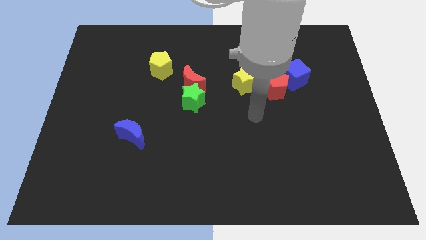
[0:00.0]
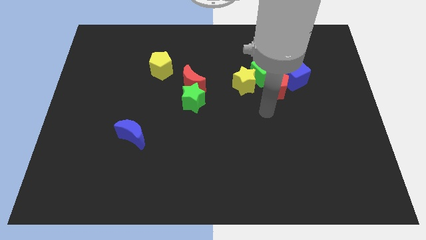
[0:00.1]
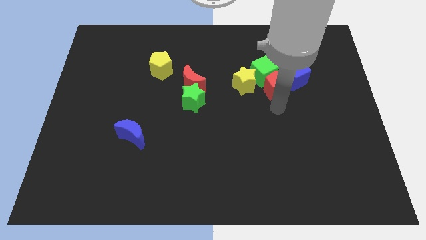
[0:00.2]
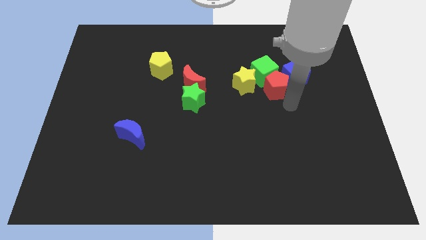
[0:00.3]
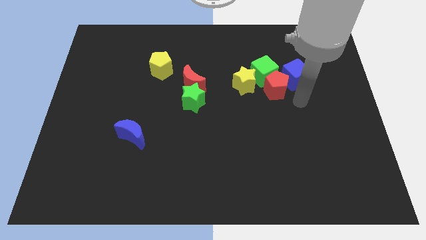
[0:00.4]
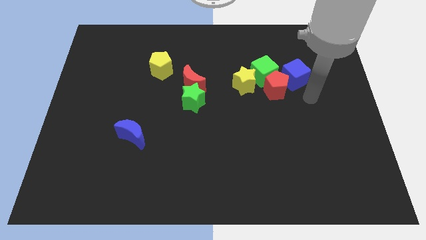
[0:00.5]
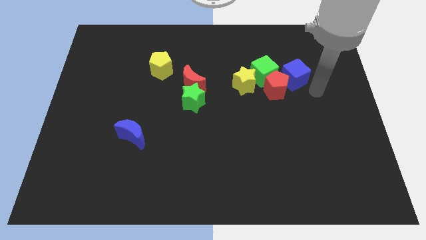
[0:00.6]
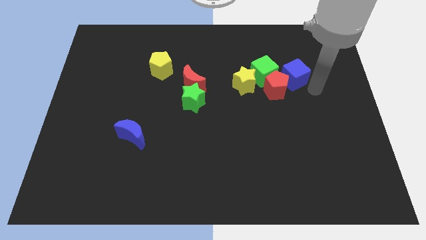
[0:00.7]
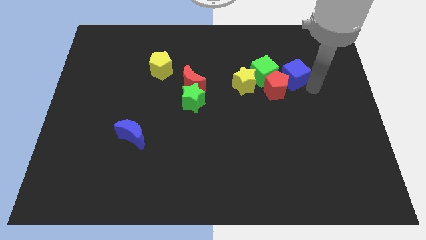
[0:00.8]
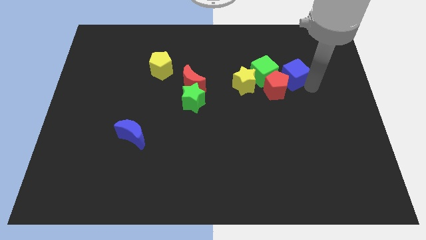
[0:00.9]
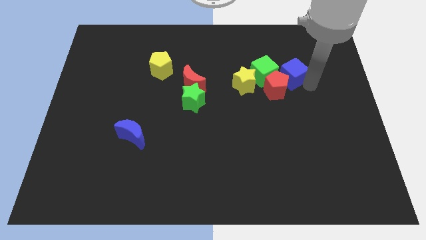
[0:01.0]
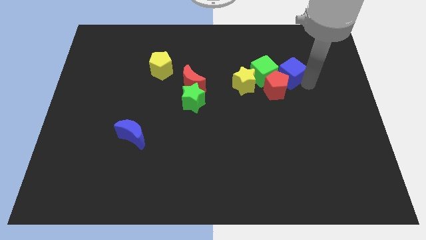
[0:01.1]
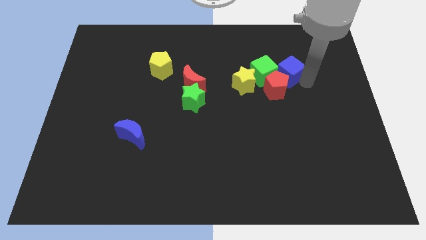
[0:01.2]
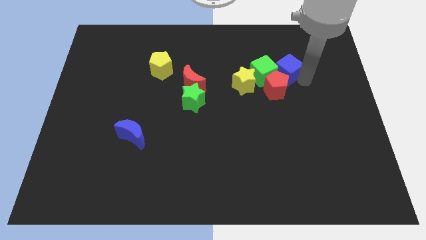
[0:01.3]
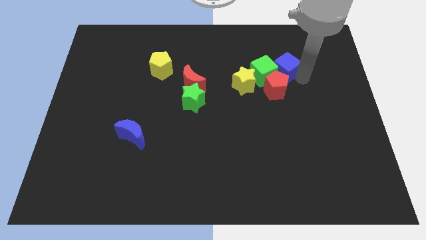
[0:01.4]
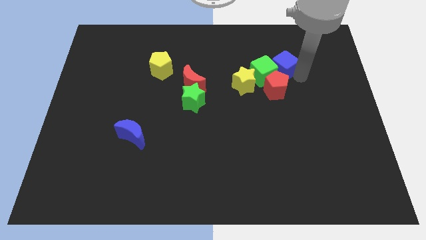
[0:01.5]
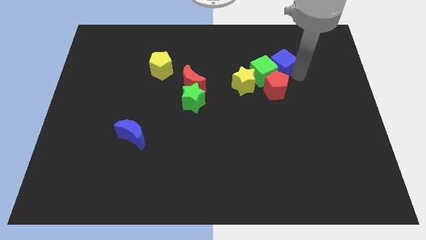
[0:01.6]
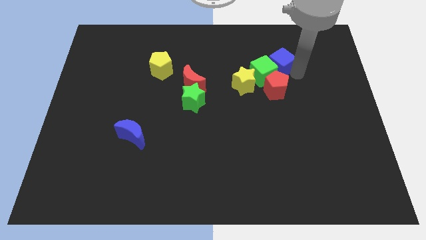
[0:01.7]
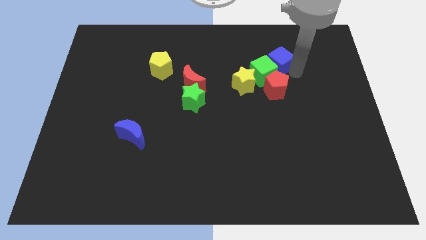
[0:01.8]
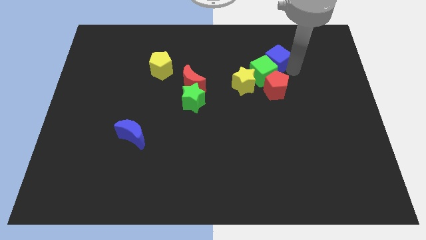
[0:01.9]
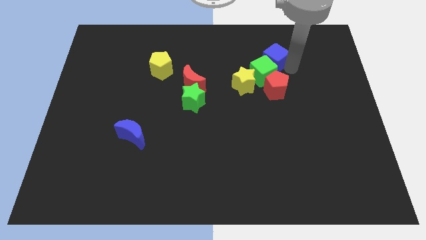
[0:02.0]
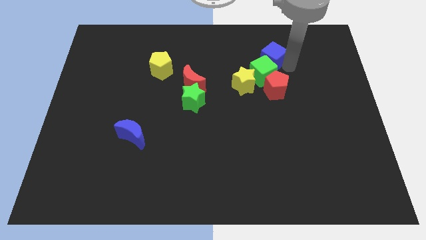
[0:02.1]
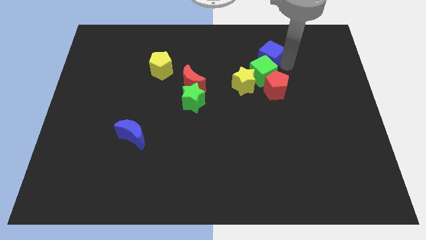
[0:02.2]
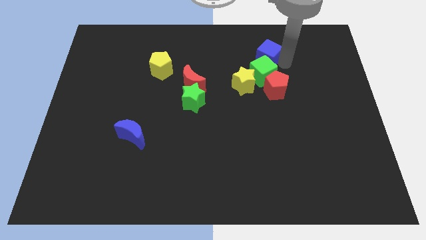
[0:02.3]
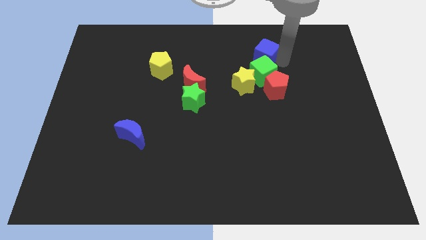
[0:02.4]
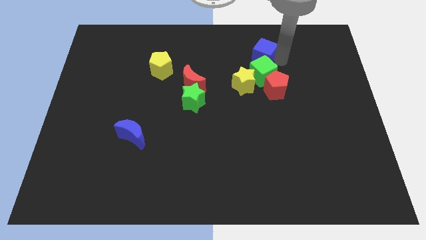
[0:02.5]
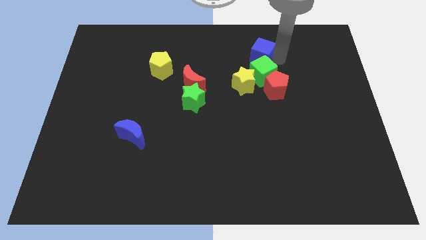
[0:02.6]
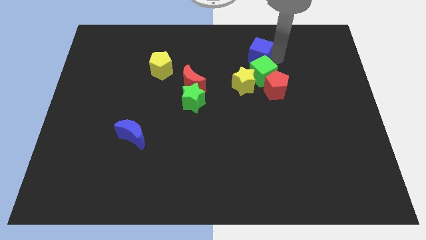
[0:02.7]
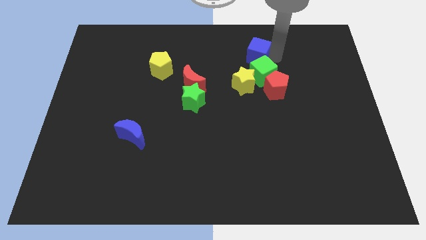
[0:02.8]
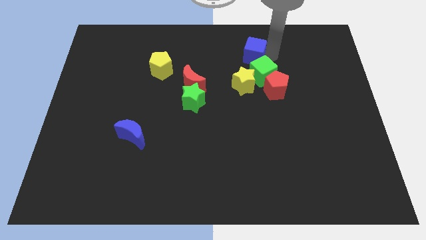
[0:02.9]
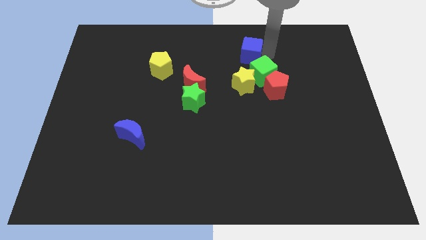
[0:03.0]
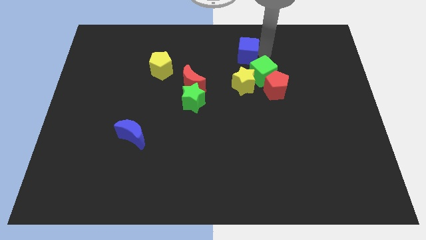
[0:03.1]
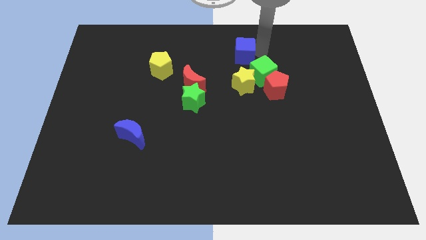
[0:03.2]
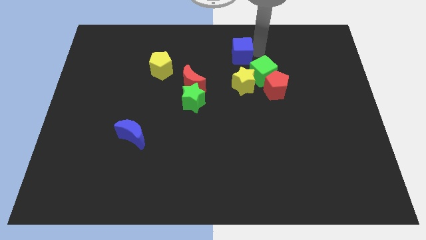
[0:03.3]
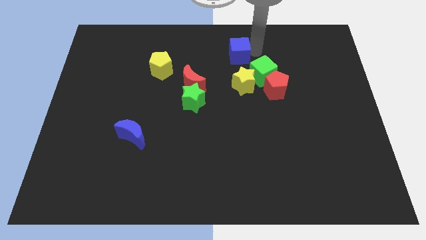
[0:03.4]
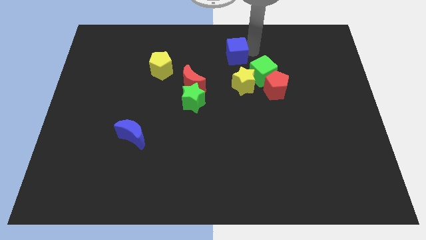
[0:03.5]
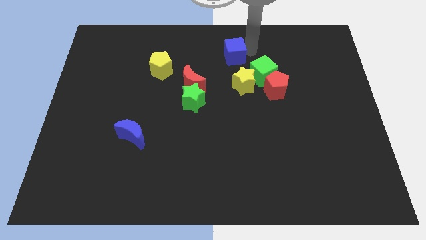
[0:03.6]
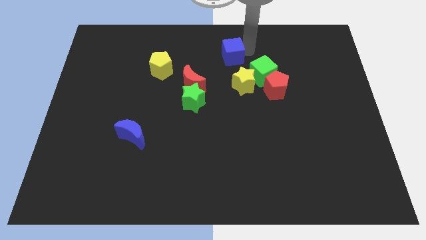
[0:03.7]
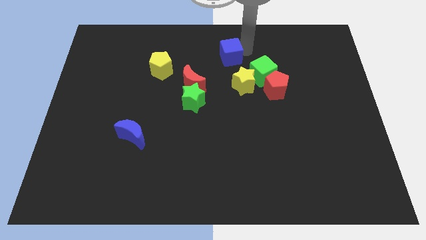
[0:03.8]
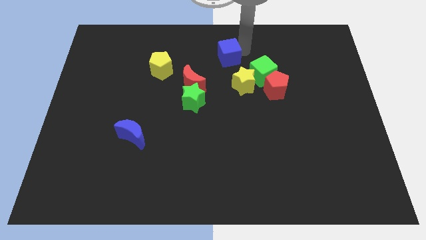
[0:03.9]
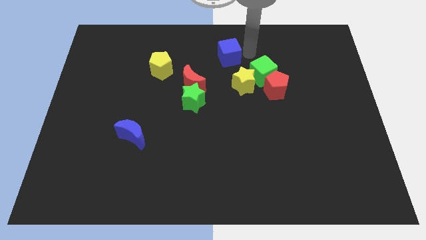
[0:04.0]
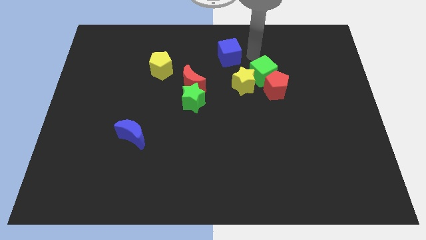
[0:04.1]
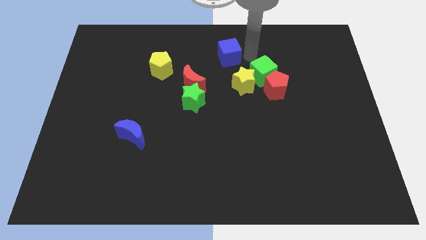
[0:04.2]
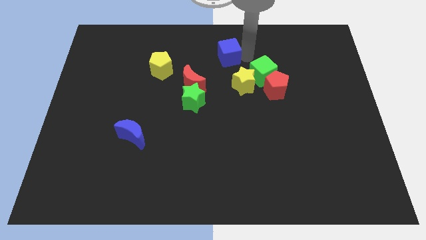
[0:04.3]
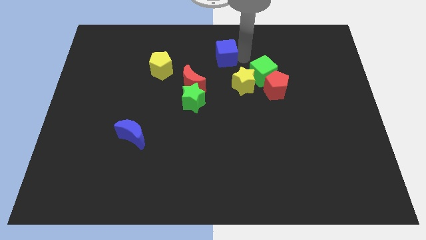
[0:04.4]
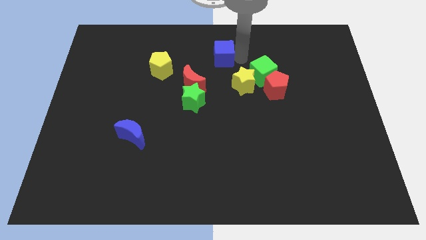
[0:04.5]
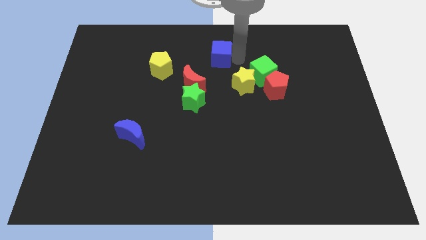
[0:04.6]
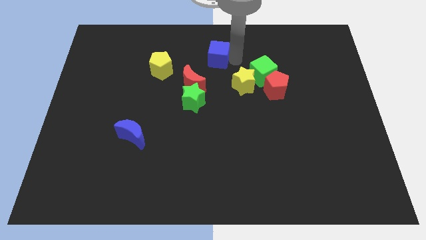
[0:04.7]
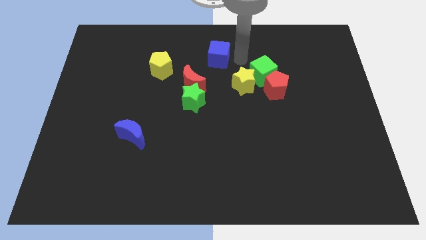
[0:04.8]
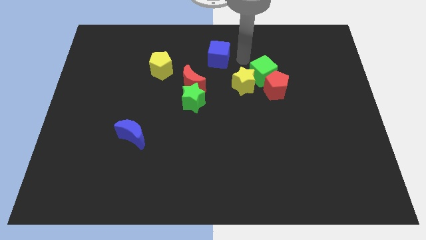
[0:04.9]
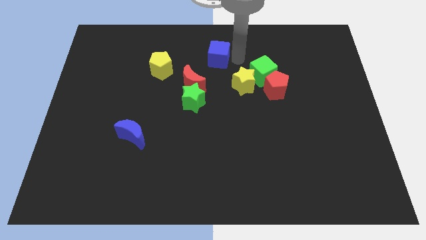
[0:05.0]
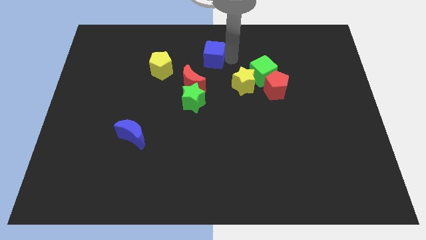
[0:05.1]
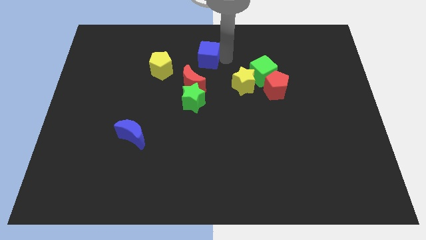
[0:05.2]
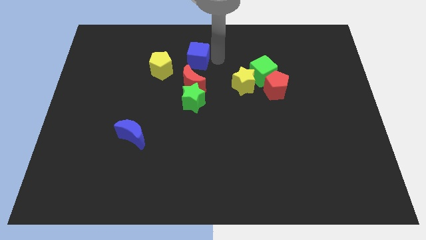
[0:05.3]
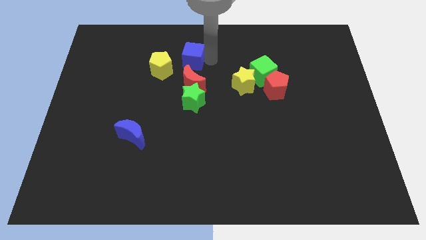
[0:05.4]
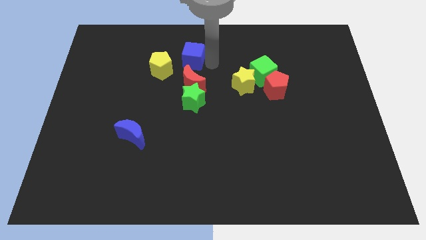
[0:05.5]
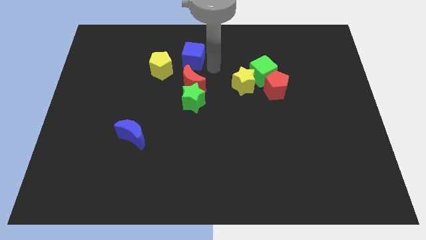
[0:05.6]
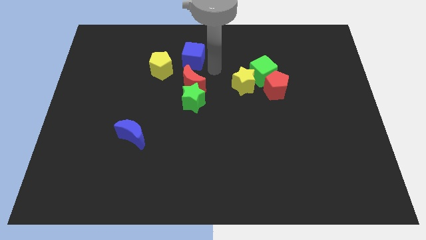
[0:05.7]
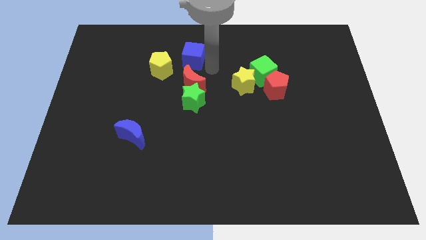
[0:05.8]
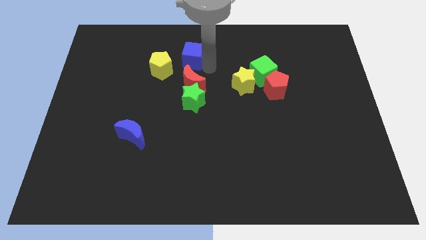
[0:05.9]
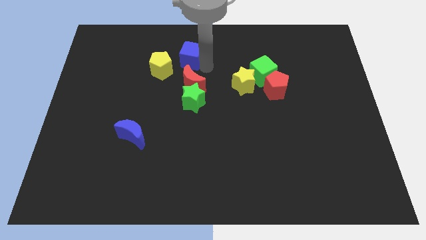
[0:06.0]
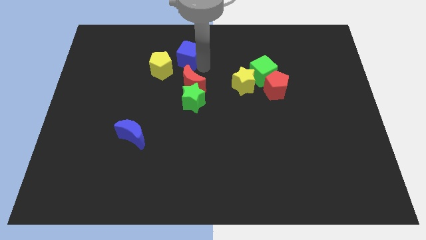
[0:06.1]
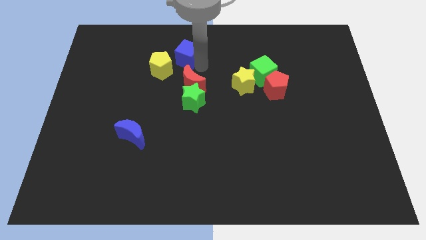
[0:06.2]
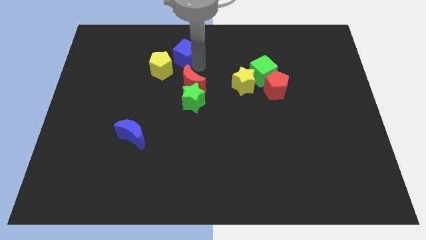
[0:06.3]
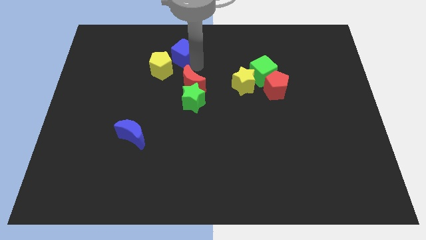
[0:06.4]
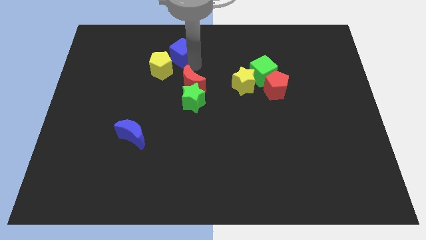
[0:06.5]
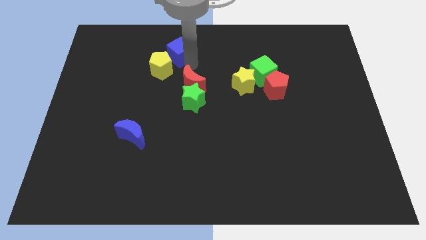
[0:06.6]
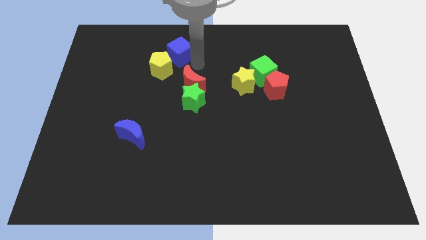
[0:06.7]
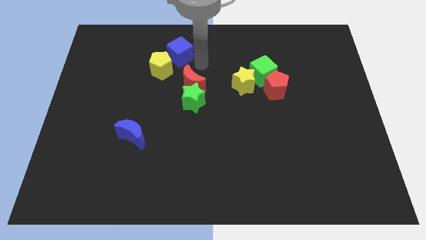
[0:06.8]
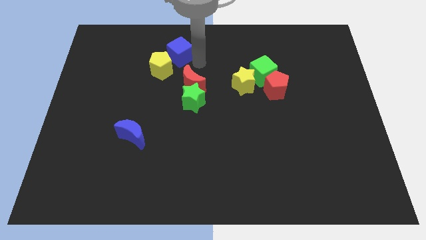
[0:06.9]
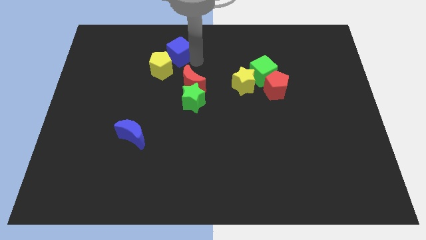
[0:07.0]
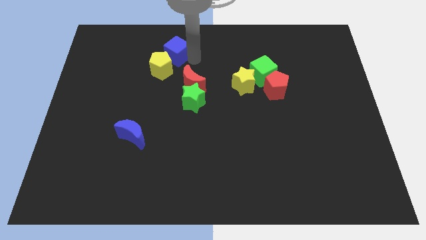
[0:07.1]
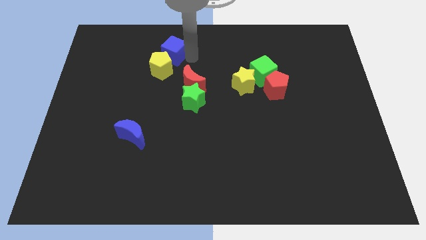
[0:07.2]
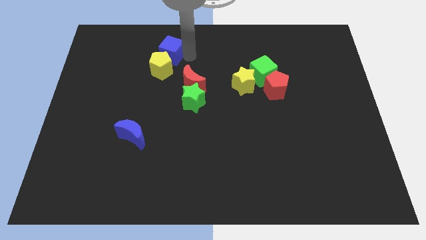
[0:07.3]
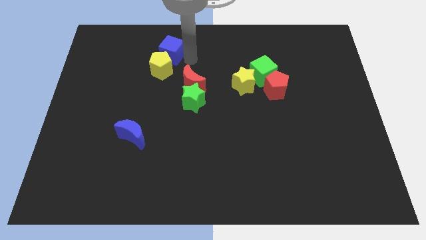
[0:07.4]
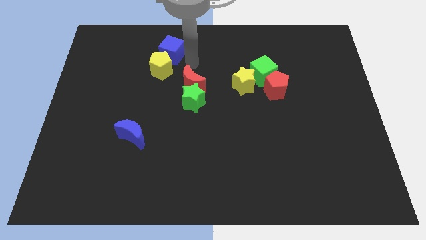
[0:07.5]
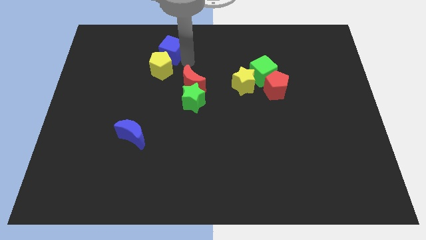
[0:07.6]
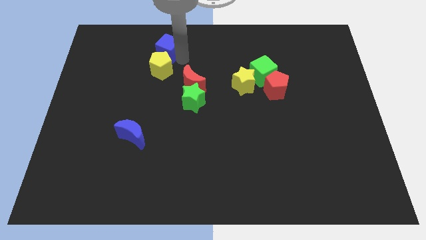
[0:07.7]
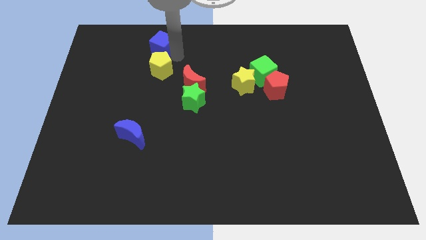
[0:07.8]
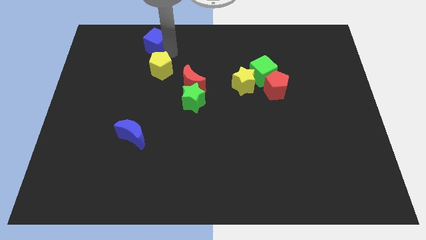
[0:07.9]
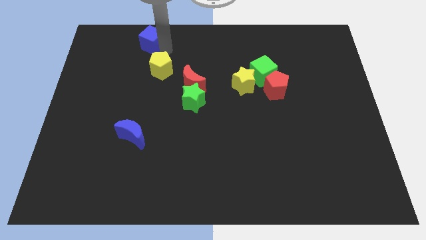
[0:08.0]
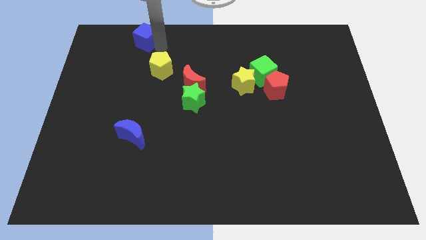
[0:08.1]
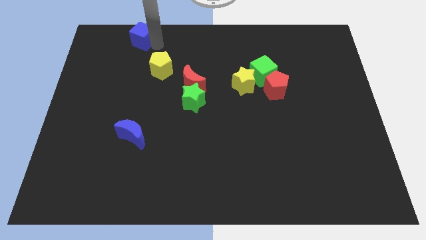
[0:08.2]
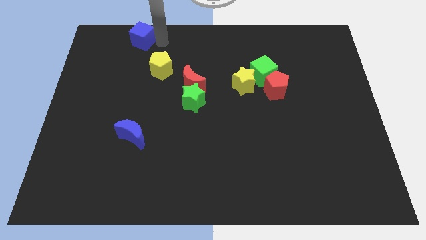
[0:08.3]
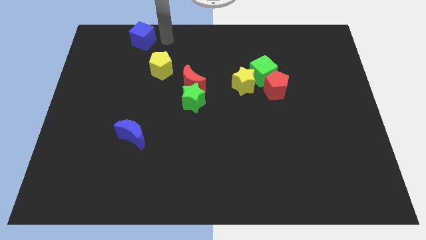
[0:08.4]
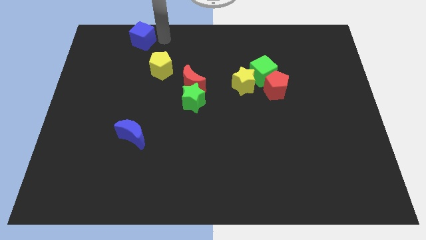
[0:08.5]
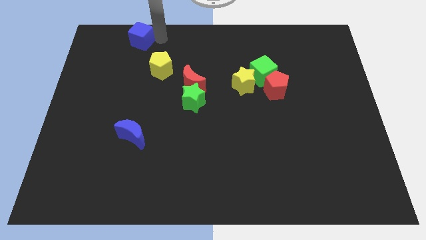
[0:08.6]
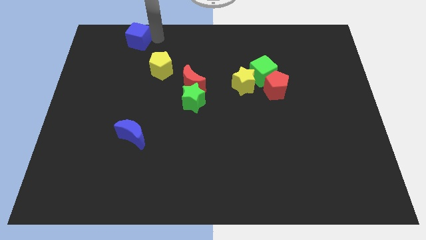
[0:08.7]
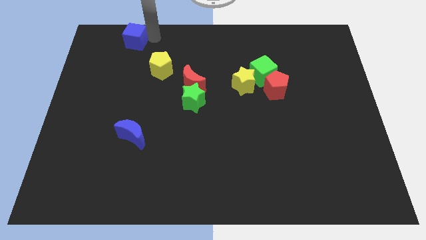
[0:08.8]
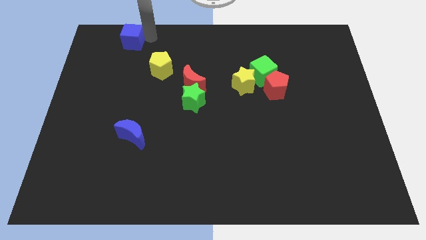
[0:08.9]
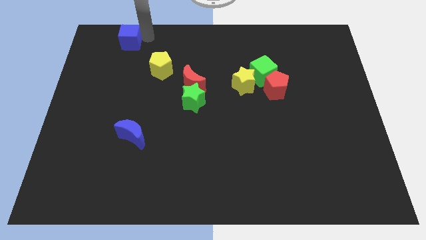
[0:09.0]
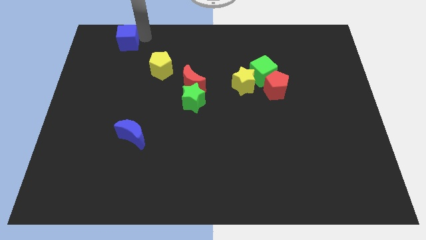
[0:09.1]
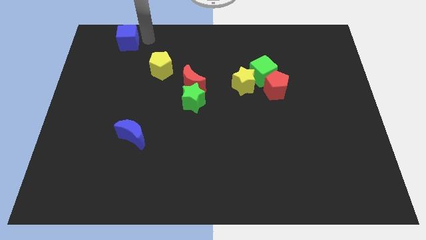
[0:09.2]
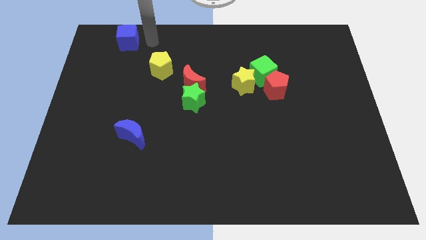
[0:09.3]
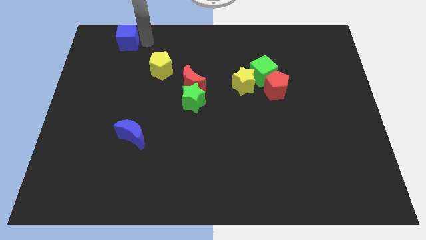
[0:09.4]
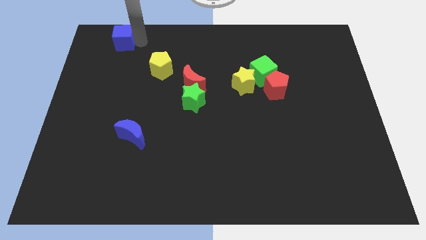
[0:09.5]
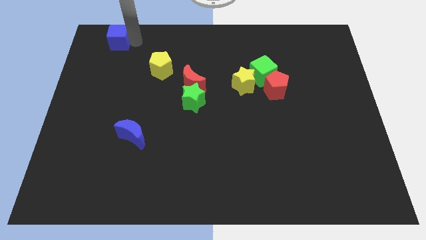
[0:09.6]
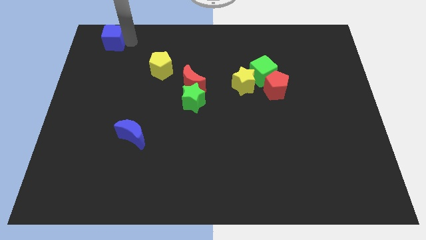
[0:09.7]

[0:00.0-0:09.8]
move the blue cube to the top left of the board
